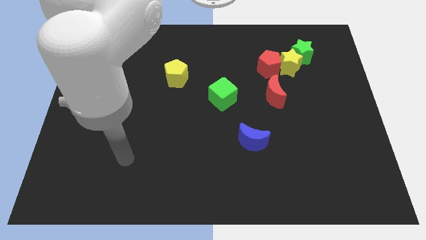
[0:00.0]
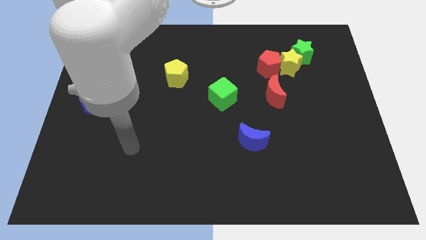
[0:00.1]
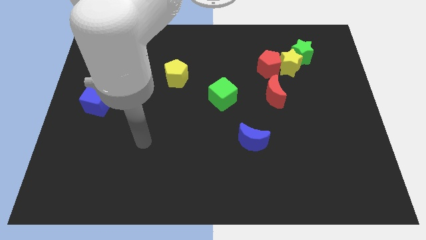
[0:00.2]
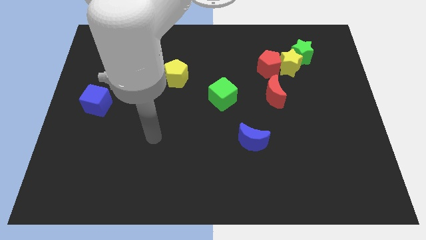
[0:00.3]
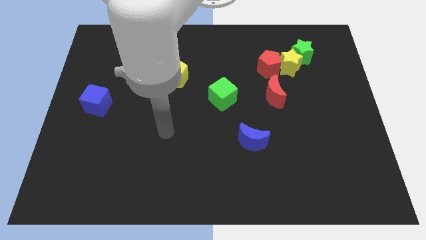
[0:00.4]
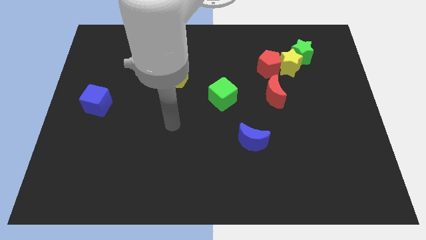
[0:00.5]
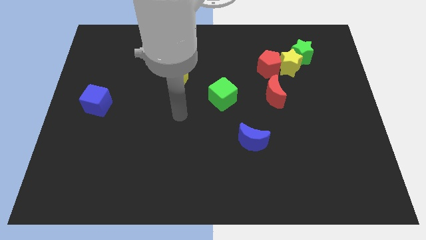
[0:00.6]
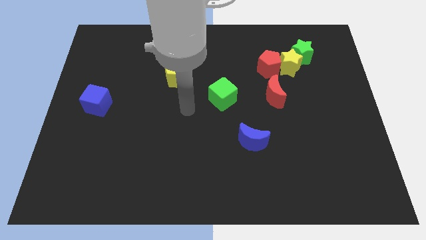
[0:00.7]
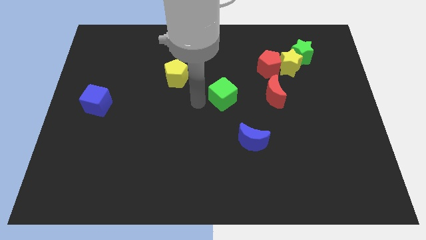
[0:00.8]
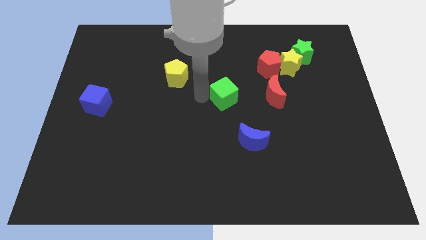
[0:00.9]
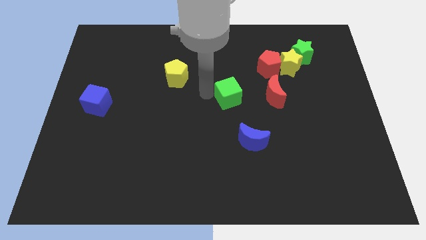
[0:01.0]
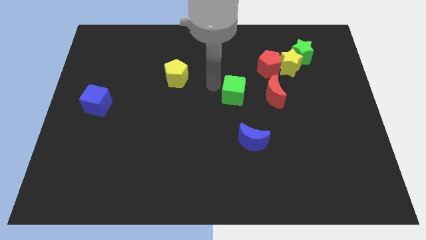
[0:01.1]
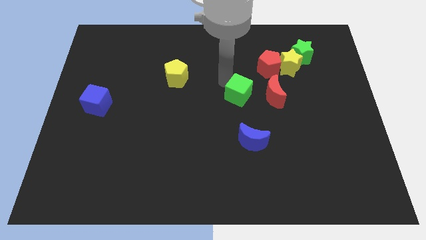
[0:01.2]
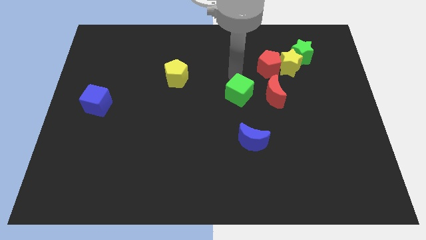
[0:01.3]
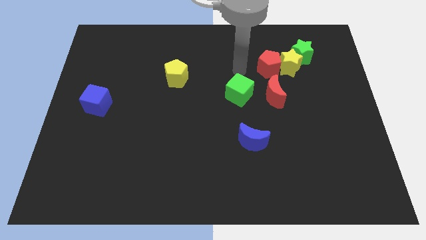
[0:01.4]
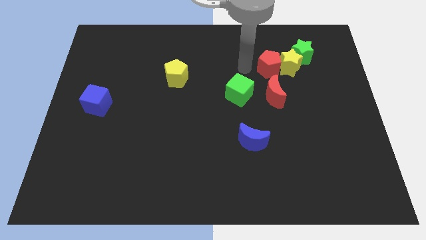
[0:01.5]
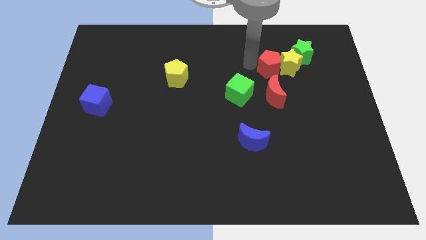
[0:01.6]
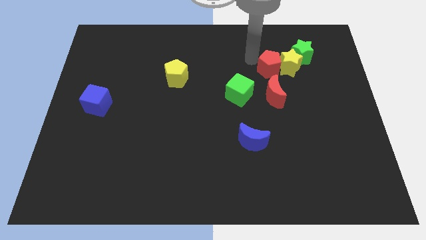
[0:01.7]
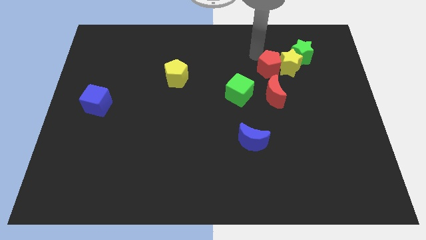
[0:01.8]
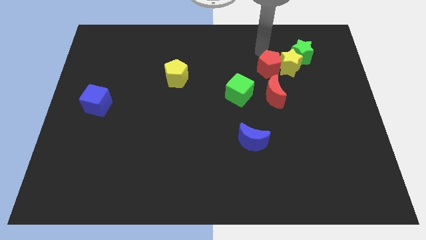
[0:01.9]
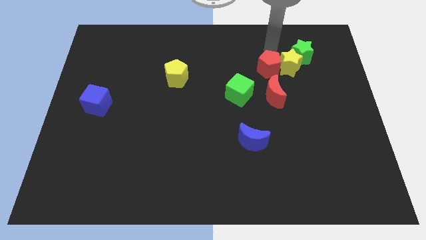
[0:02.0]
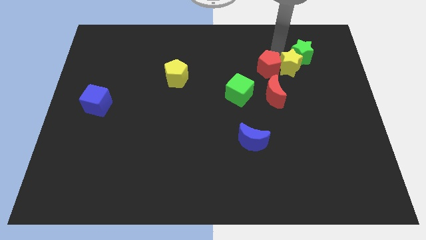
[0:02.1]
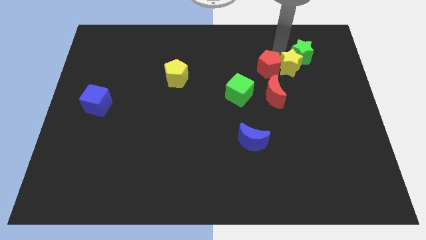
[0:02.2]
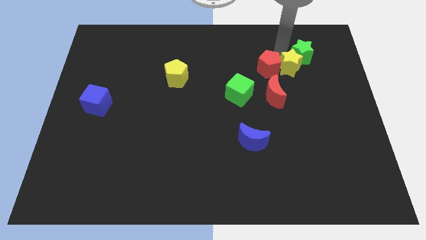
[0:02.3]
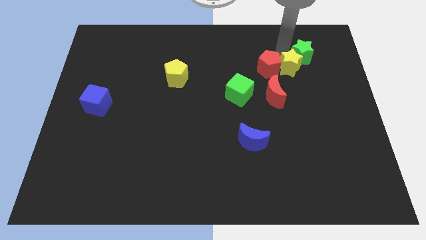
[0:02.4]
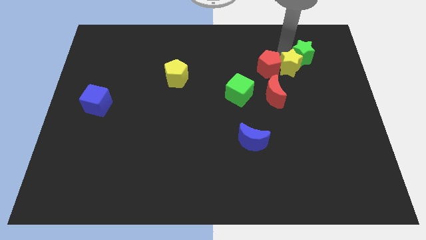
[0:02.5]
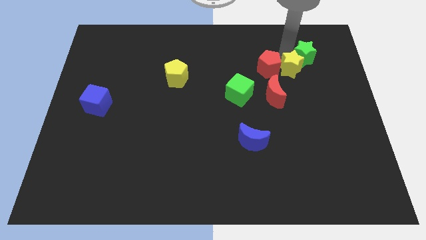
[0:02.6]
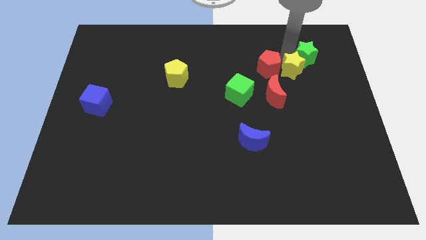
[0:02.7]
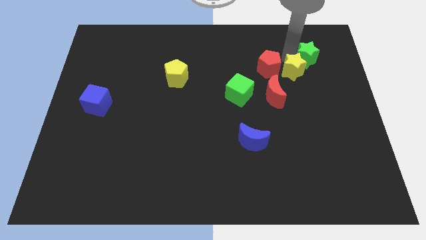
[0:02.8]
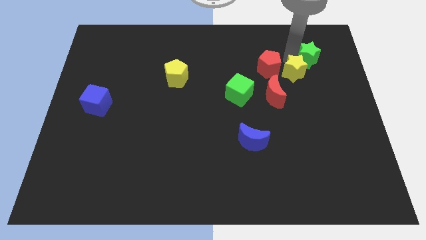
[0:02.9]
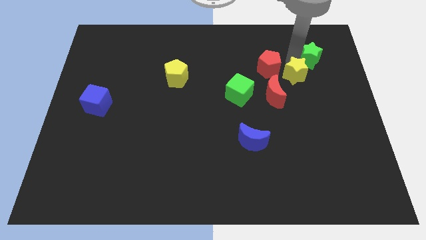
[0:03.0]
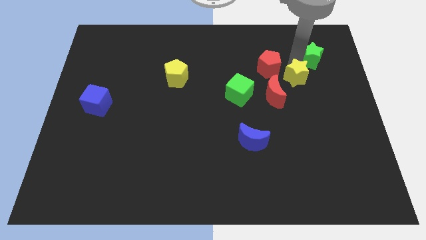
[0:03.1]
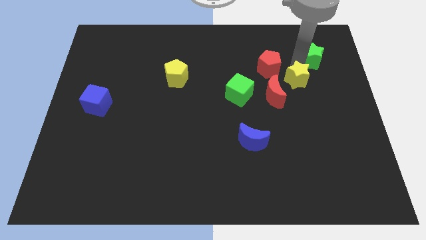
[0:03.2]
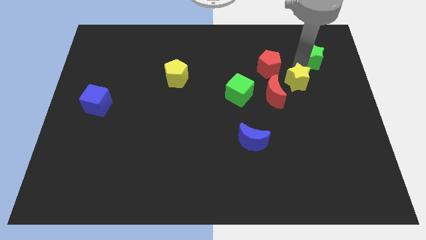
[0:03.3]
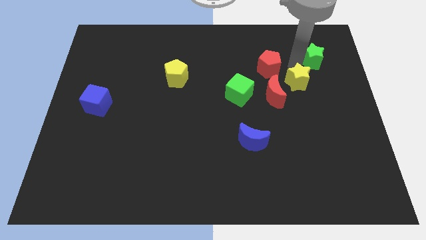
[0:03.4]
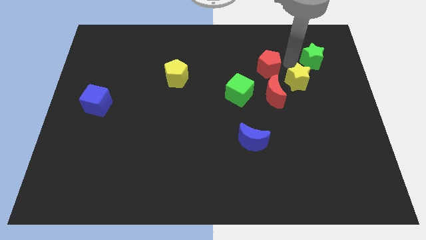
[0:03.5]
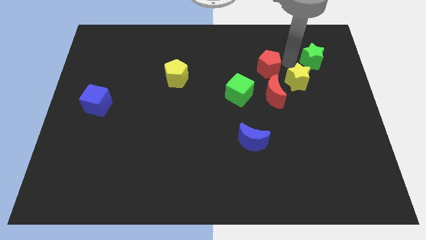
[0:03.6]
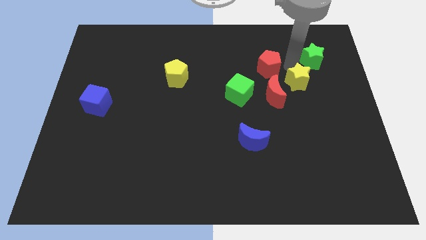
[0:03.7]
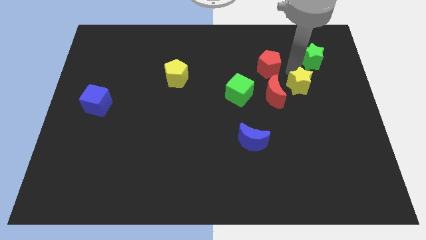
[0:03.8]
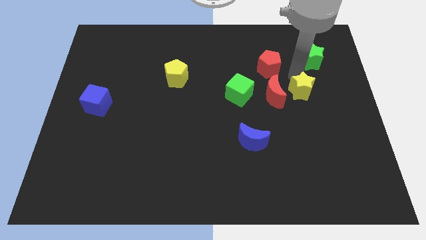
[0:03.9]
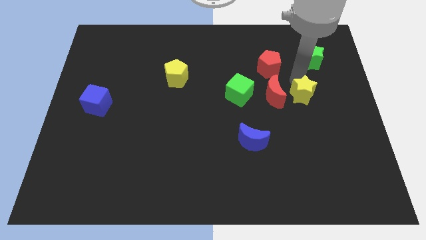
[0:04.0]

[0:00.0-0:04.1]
pull the yellow star apart from the red pentagon and green star

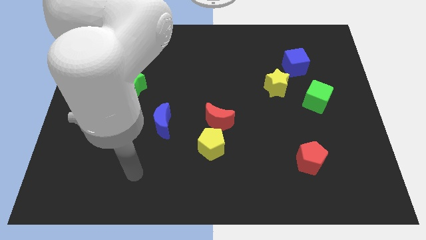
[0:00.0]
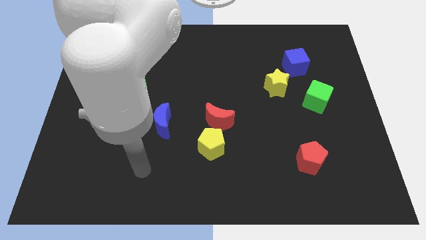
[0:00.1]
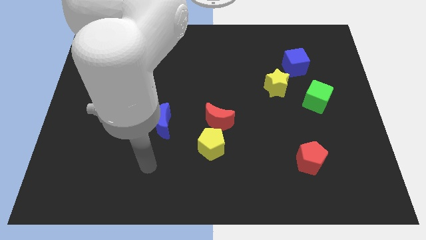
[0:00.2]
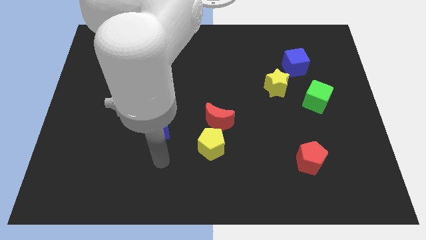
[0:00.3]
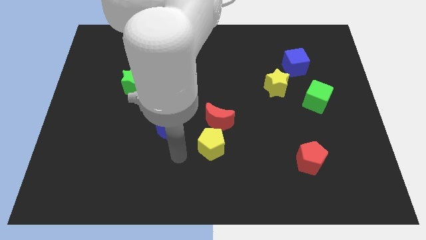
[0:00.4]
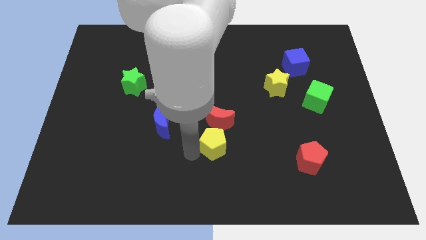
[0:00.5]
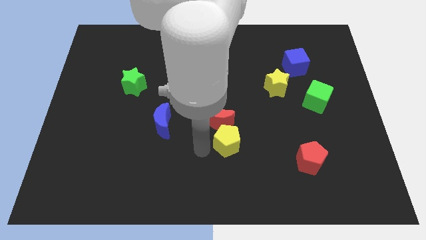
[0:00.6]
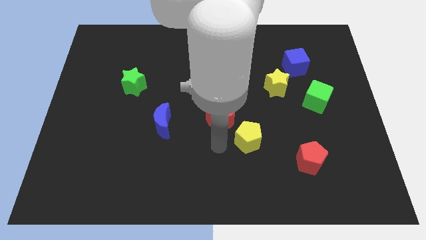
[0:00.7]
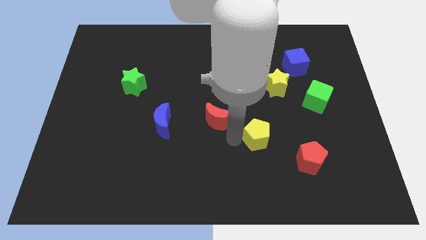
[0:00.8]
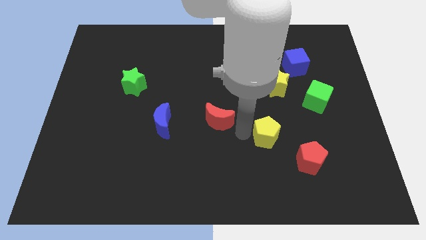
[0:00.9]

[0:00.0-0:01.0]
separate the red moon from the yellow pentagon

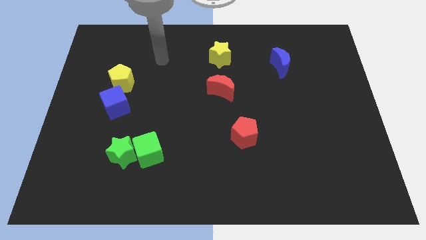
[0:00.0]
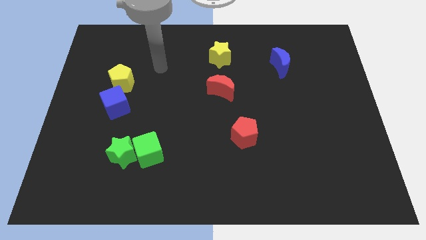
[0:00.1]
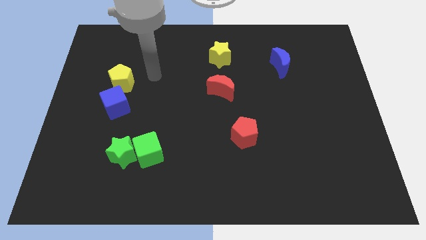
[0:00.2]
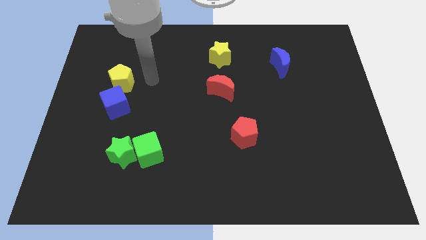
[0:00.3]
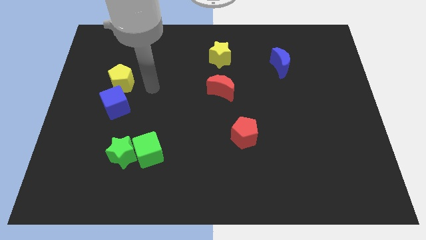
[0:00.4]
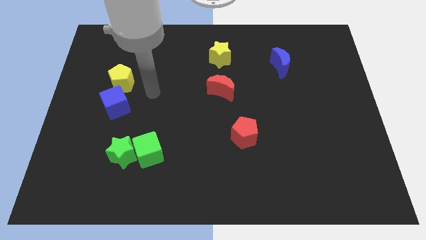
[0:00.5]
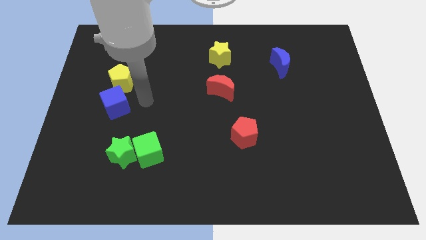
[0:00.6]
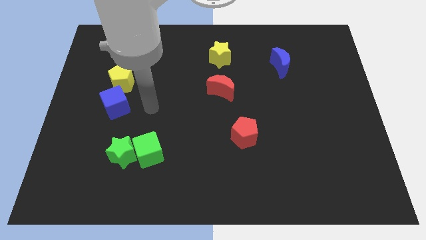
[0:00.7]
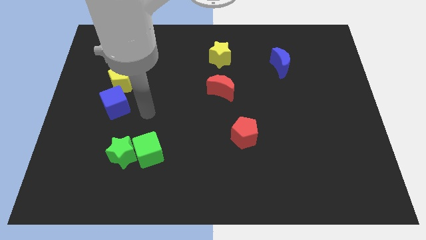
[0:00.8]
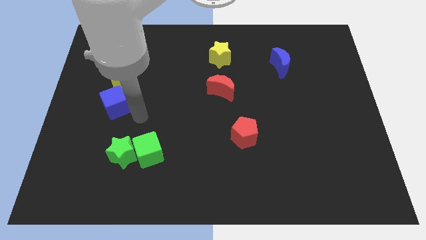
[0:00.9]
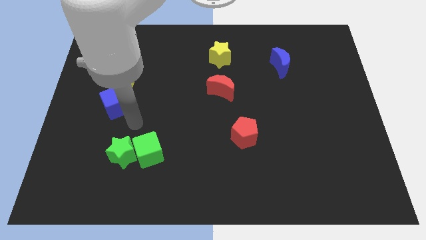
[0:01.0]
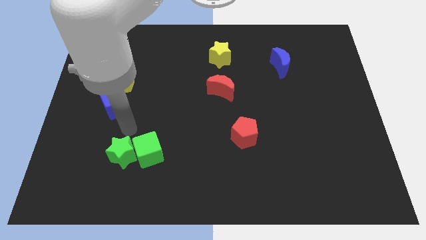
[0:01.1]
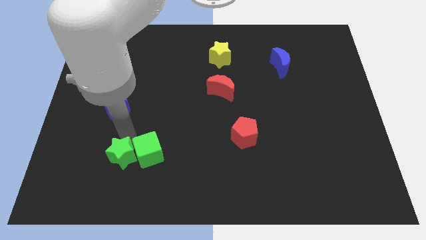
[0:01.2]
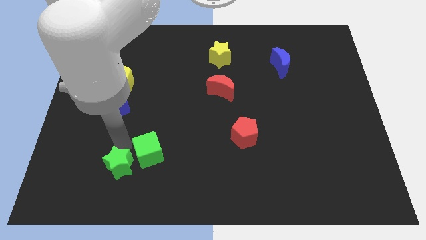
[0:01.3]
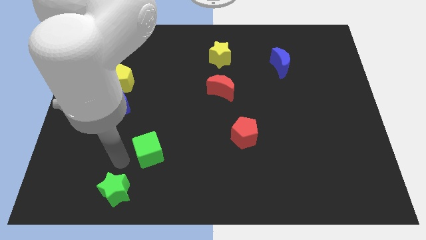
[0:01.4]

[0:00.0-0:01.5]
move the green cube away from the green star

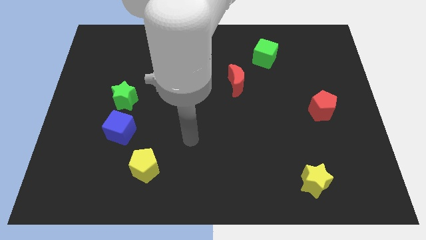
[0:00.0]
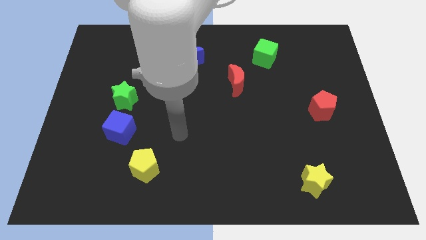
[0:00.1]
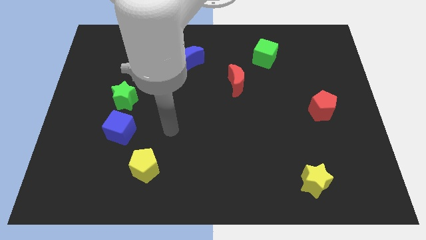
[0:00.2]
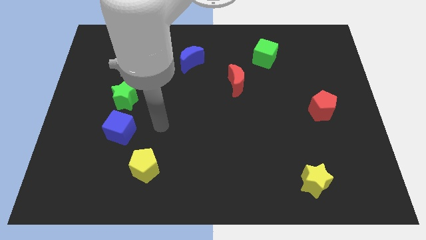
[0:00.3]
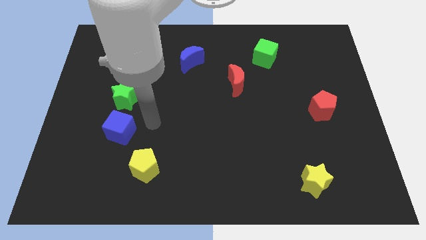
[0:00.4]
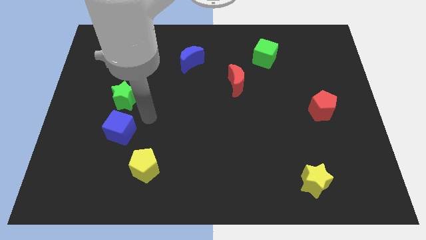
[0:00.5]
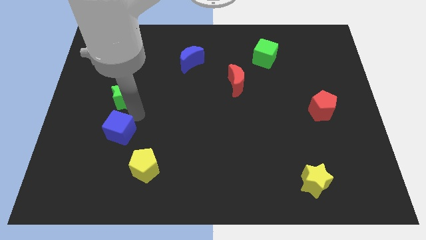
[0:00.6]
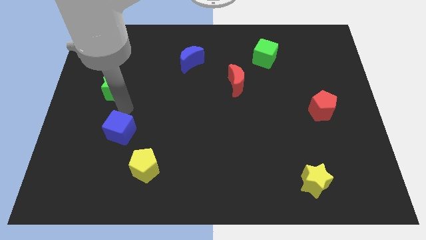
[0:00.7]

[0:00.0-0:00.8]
pull the blue cube apart from the green star

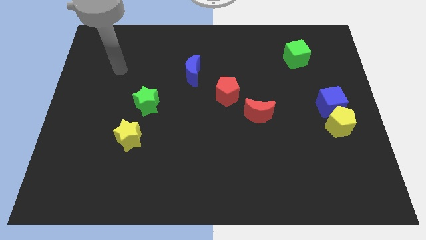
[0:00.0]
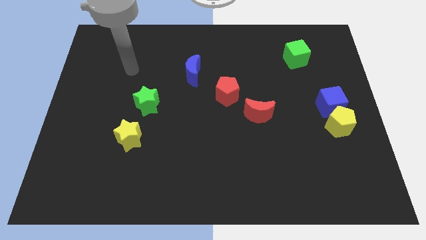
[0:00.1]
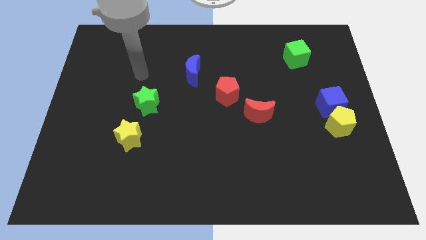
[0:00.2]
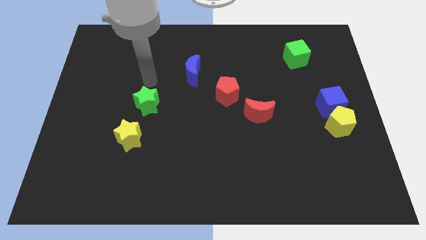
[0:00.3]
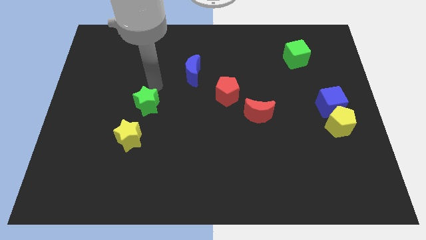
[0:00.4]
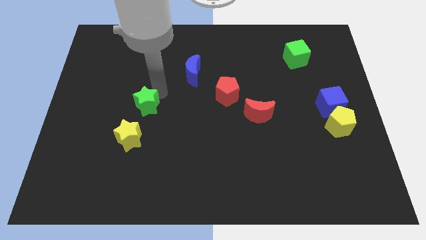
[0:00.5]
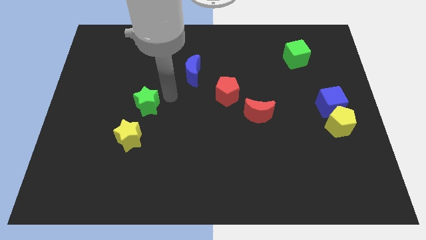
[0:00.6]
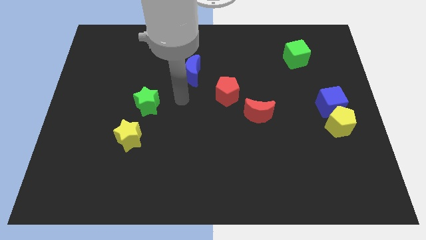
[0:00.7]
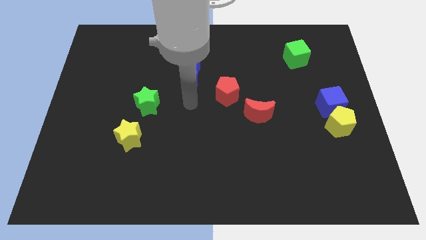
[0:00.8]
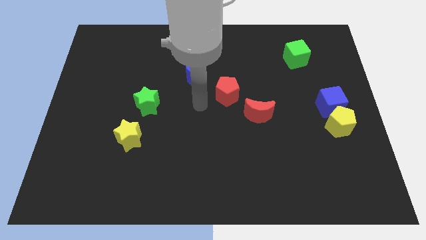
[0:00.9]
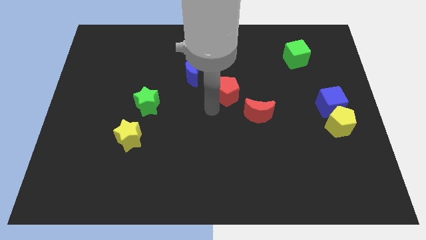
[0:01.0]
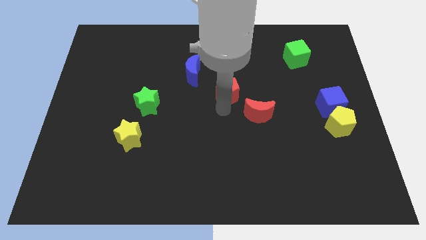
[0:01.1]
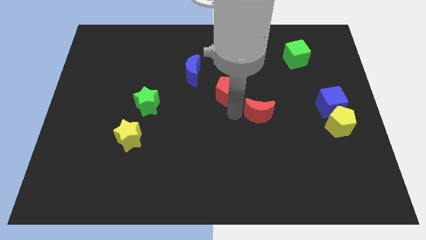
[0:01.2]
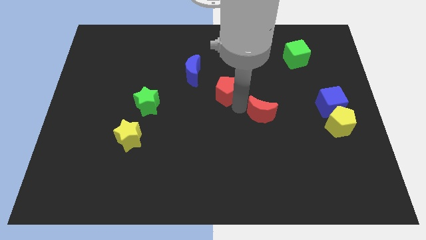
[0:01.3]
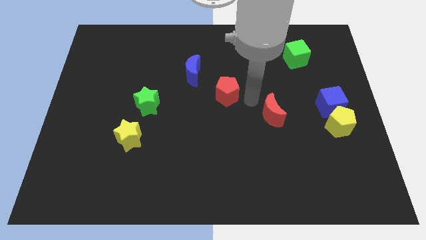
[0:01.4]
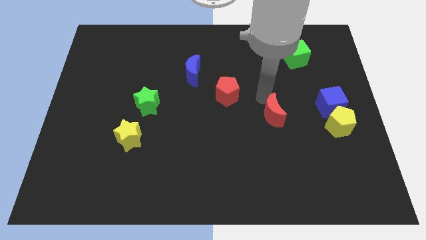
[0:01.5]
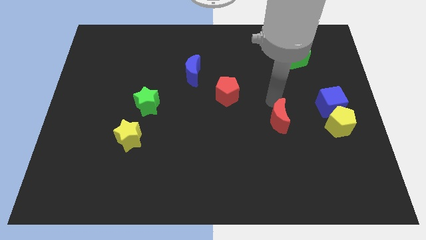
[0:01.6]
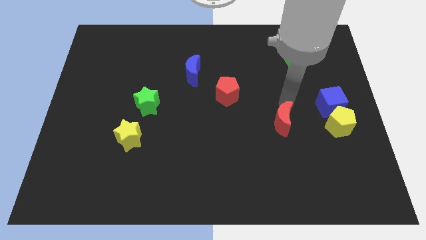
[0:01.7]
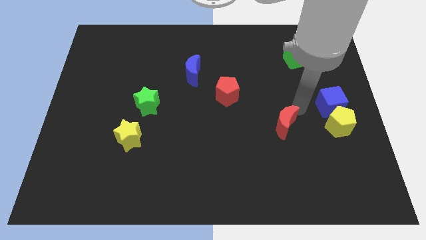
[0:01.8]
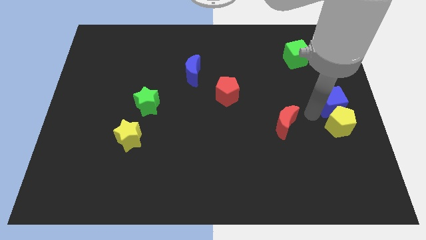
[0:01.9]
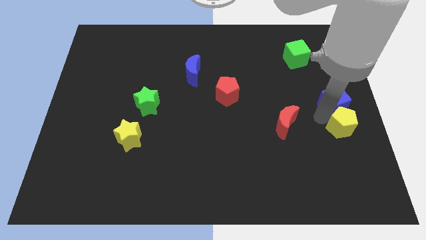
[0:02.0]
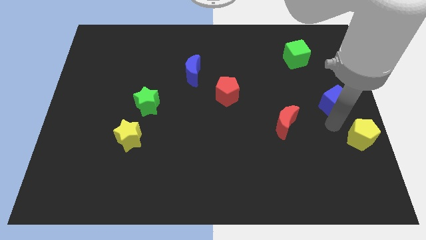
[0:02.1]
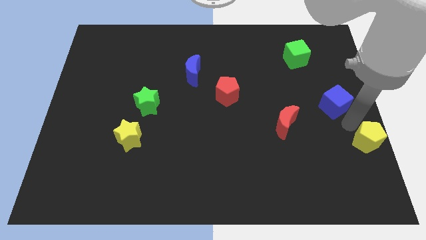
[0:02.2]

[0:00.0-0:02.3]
separate the blue cube from the yellow pentagon
